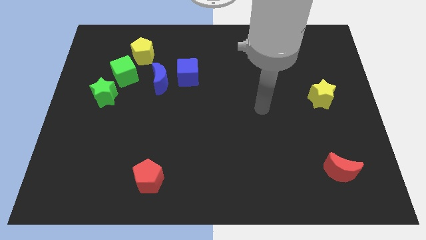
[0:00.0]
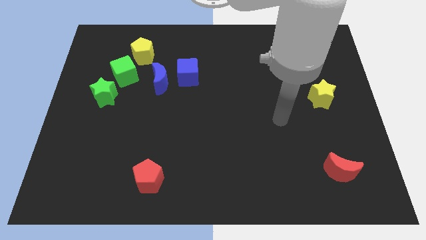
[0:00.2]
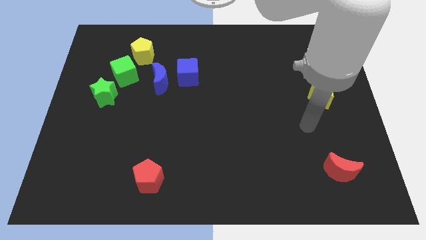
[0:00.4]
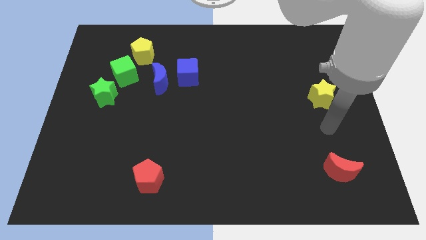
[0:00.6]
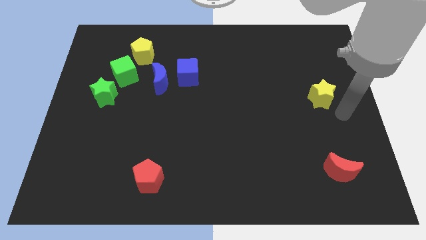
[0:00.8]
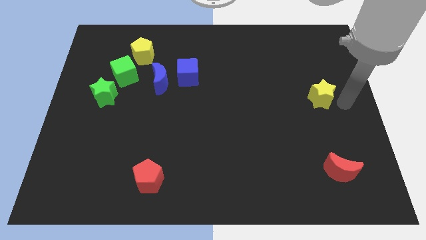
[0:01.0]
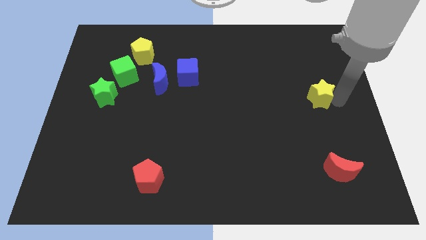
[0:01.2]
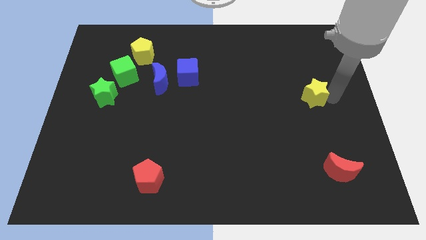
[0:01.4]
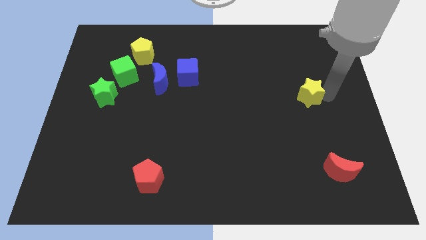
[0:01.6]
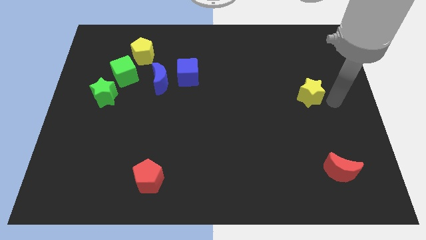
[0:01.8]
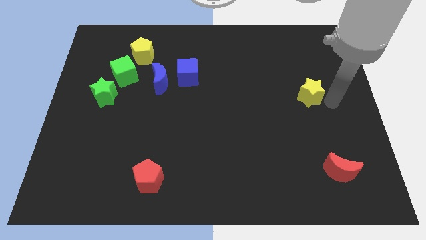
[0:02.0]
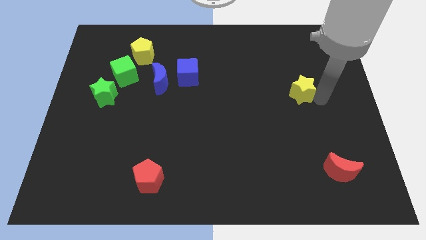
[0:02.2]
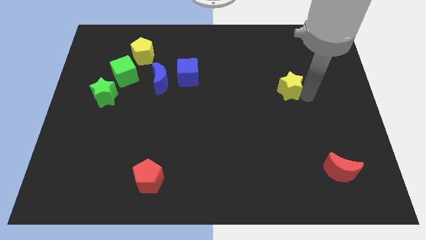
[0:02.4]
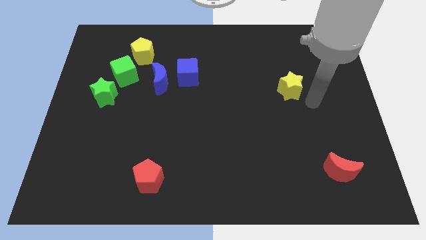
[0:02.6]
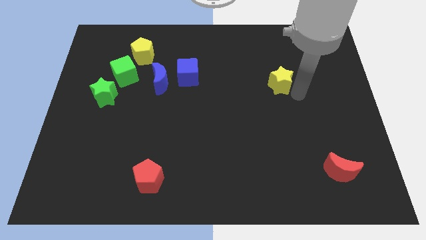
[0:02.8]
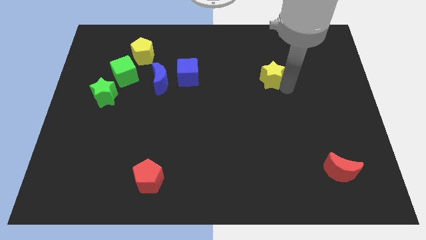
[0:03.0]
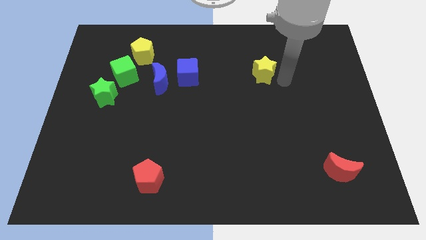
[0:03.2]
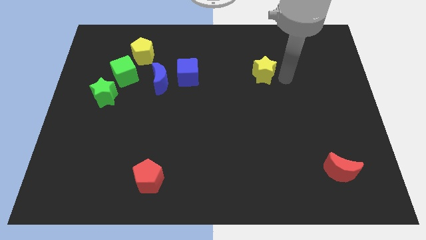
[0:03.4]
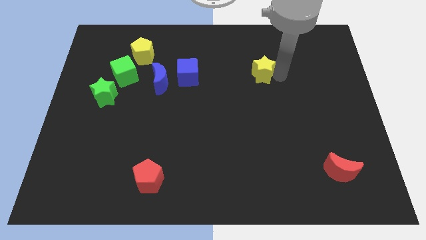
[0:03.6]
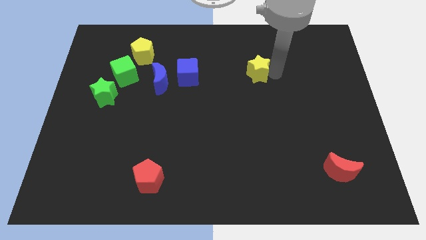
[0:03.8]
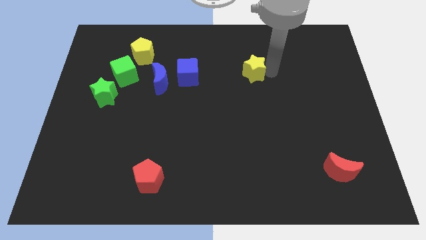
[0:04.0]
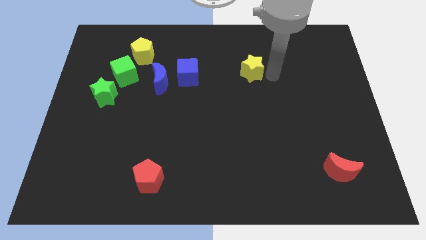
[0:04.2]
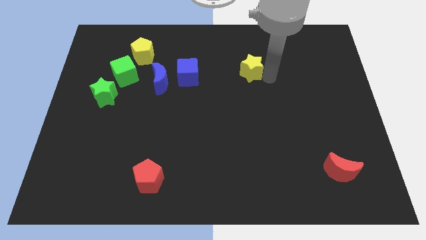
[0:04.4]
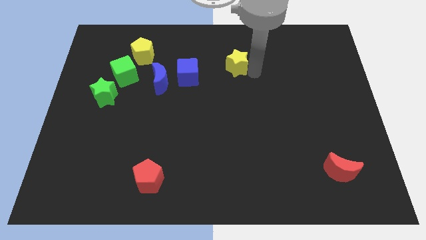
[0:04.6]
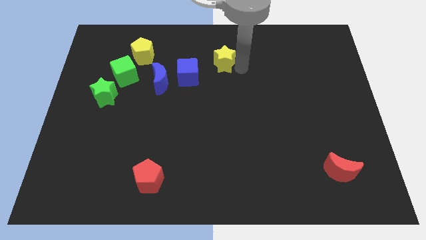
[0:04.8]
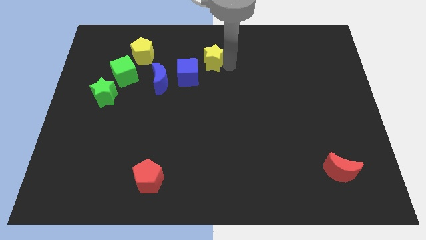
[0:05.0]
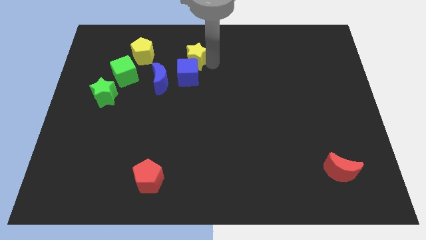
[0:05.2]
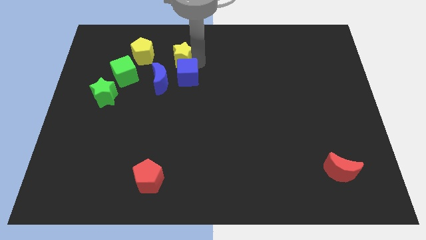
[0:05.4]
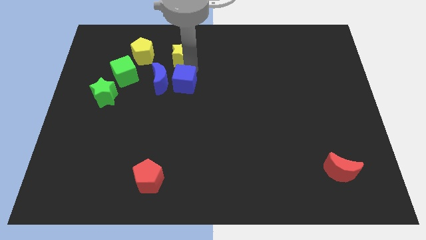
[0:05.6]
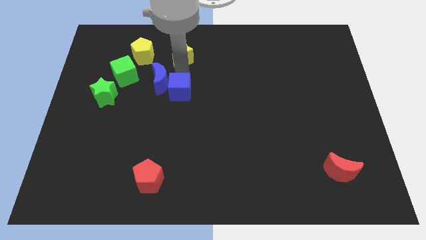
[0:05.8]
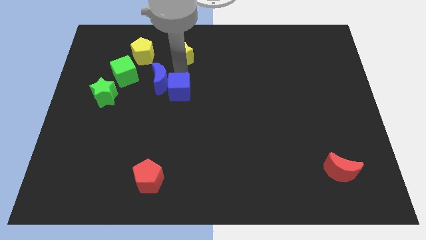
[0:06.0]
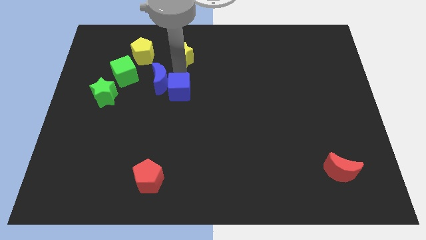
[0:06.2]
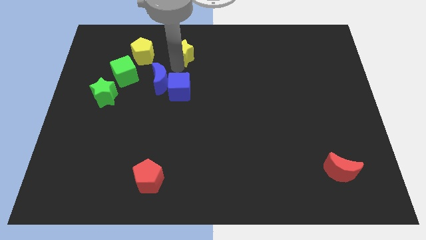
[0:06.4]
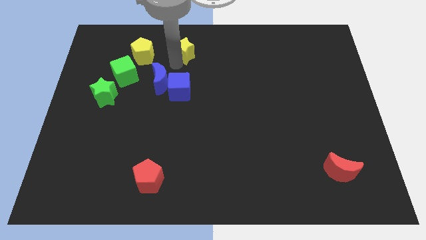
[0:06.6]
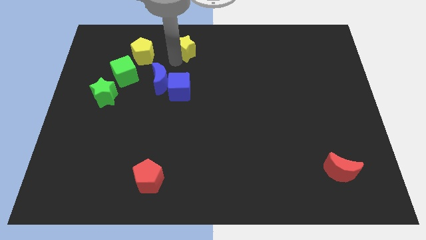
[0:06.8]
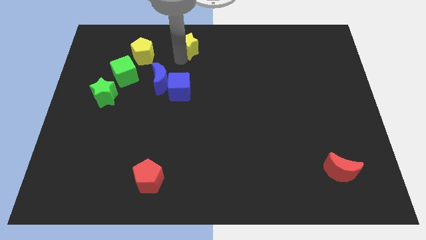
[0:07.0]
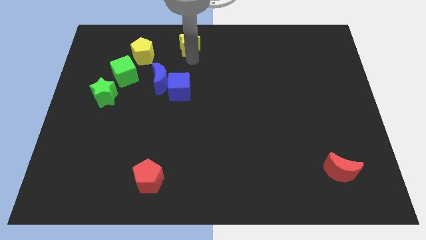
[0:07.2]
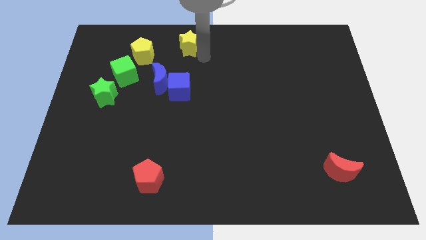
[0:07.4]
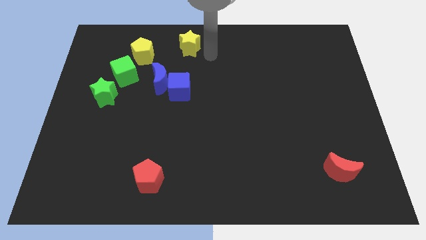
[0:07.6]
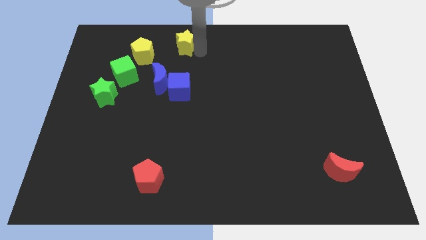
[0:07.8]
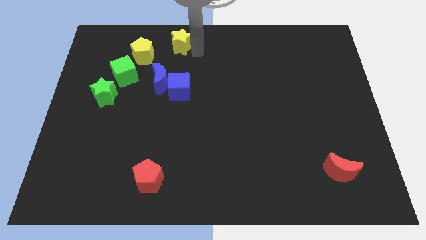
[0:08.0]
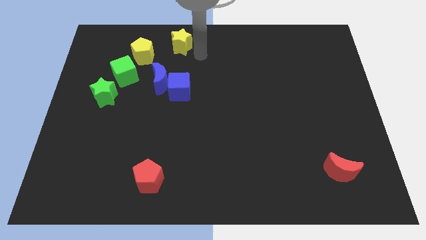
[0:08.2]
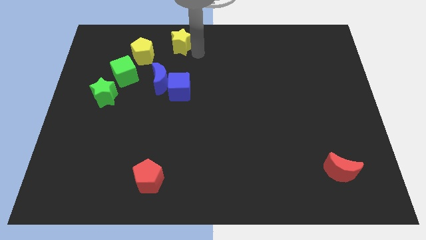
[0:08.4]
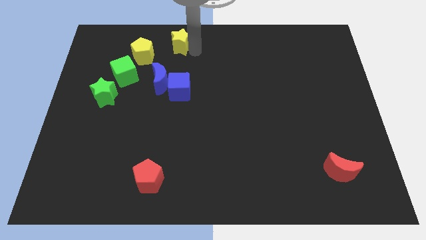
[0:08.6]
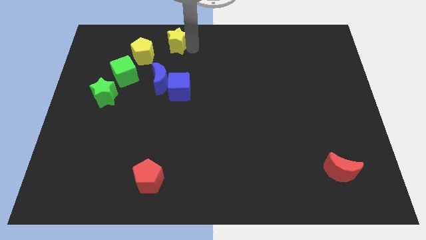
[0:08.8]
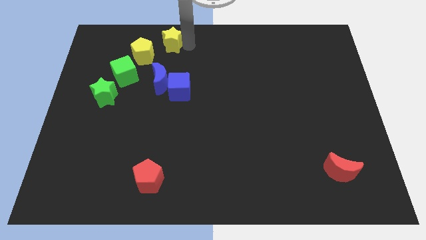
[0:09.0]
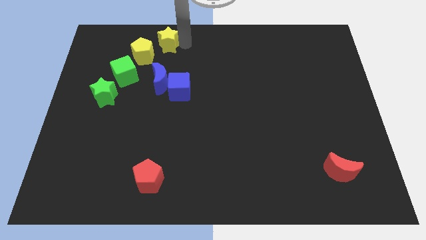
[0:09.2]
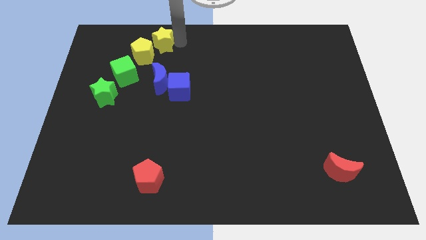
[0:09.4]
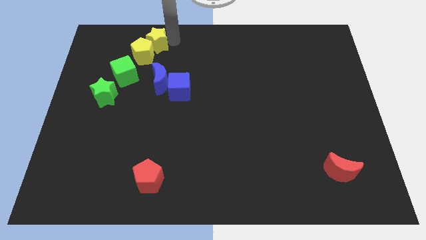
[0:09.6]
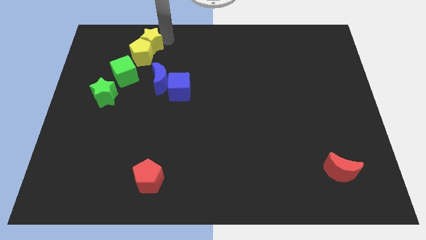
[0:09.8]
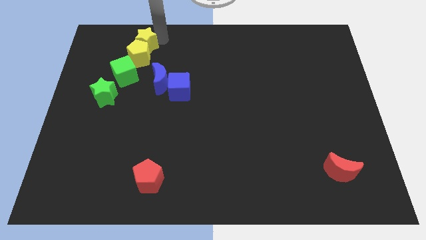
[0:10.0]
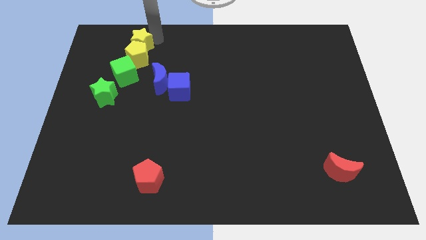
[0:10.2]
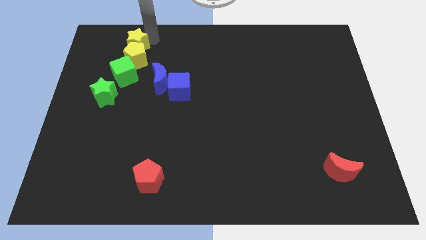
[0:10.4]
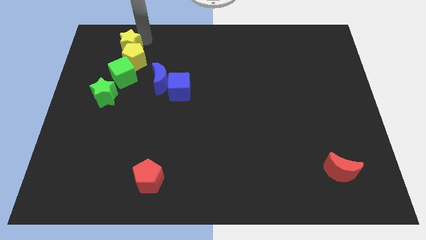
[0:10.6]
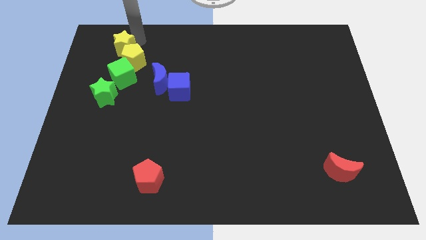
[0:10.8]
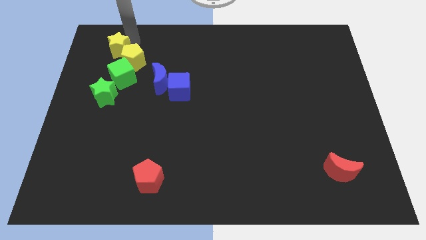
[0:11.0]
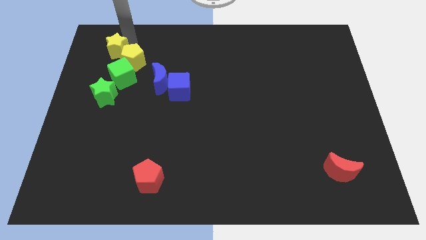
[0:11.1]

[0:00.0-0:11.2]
put the yellow star diagonally up and to the left of the green cube
